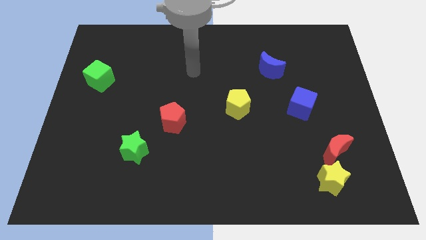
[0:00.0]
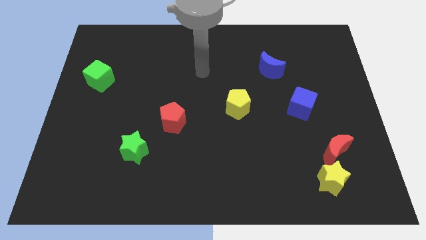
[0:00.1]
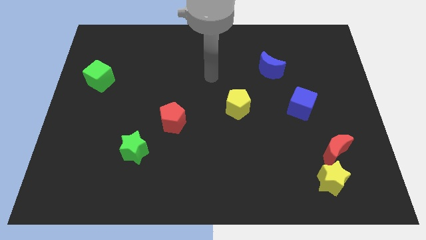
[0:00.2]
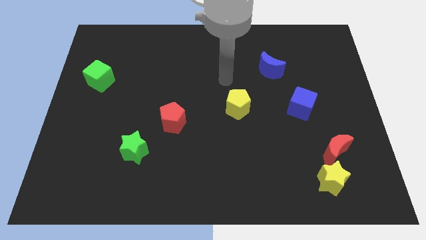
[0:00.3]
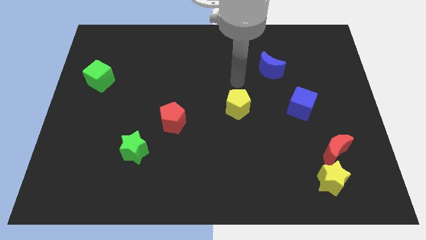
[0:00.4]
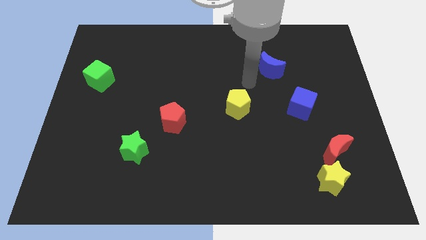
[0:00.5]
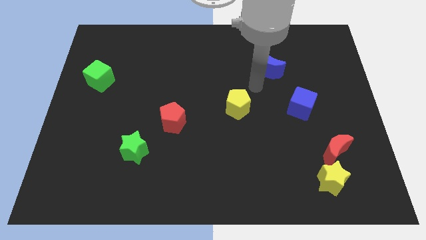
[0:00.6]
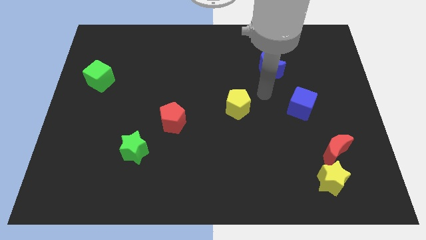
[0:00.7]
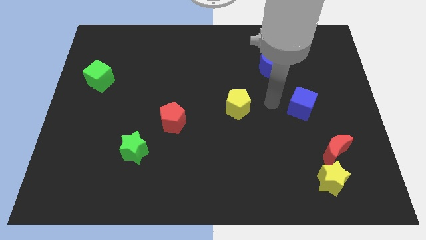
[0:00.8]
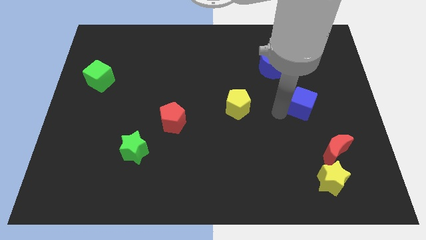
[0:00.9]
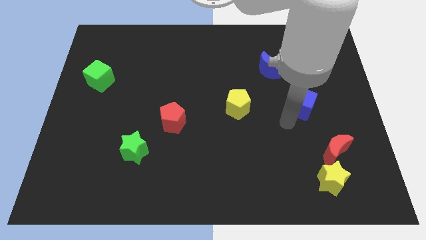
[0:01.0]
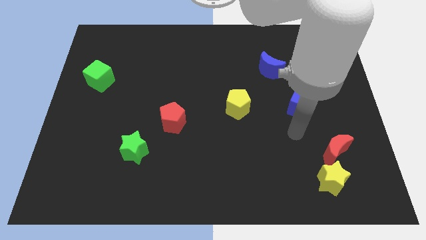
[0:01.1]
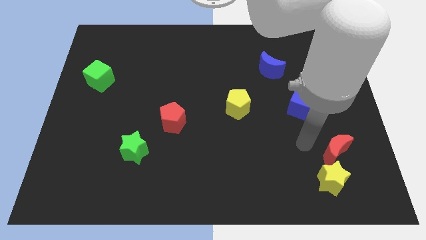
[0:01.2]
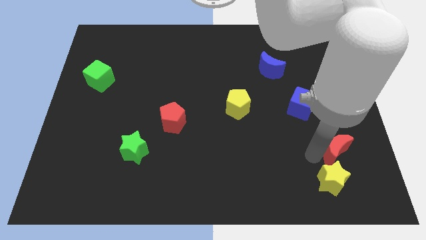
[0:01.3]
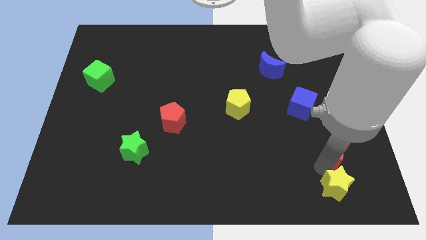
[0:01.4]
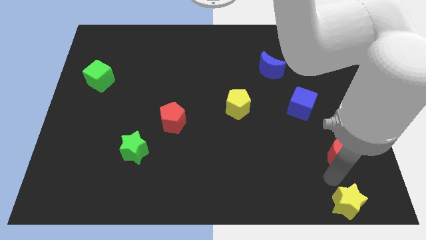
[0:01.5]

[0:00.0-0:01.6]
separate the red moon from the yellow star

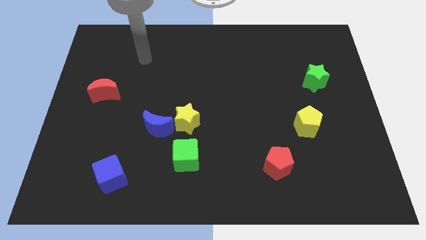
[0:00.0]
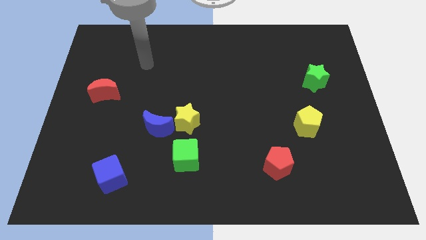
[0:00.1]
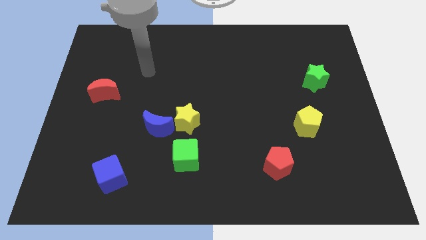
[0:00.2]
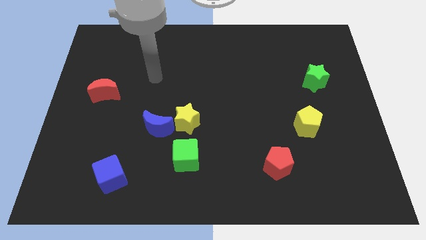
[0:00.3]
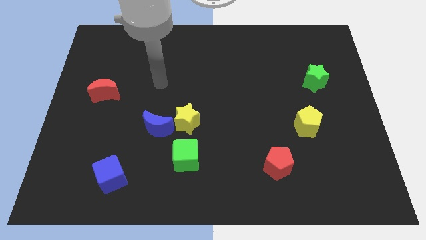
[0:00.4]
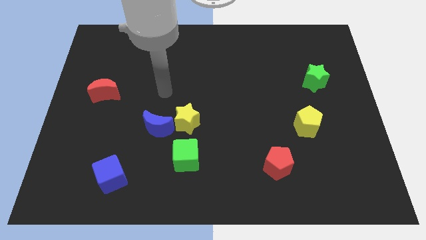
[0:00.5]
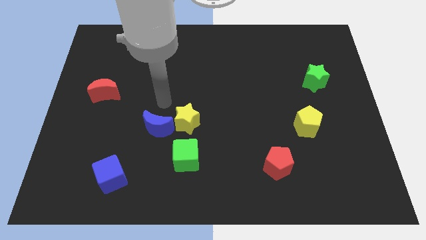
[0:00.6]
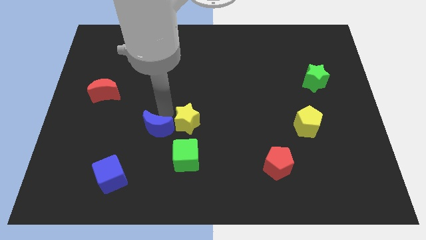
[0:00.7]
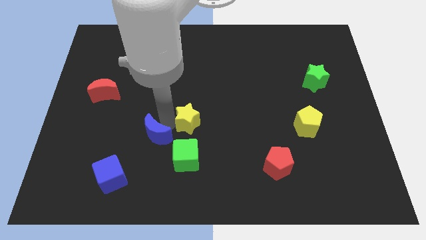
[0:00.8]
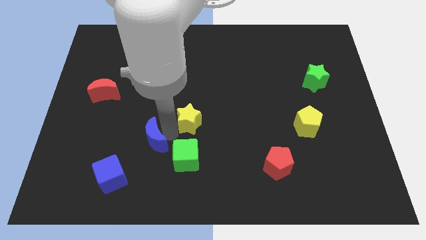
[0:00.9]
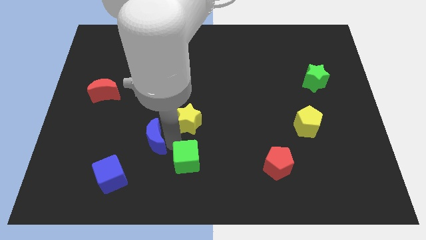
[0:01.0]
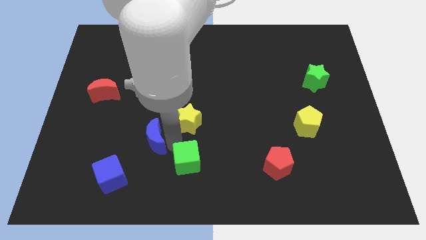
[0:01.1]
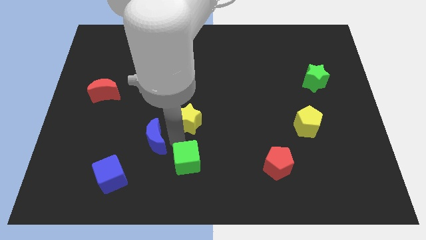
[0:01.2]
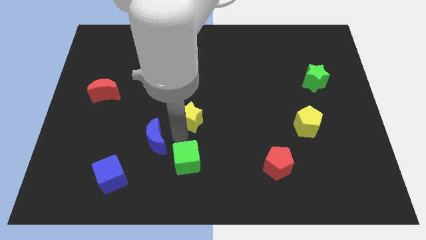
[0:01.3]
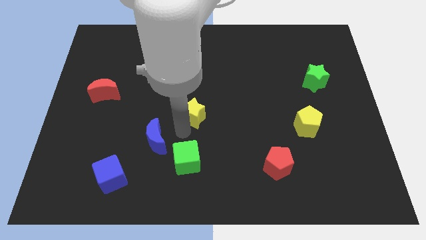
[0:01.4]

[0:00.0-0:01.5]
move the yellow star away from the blue moon and green cube

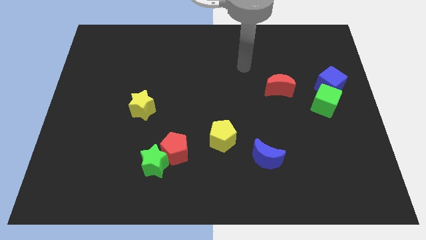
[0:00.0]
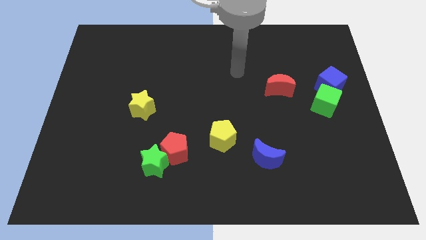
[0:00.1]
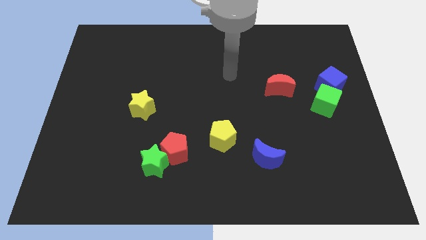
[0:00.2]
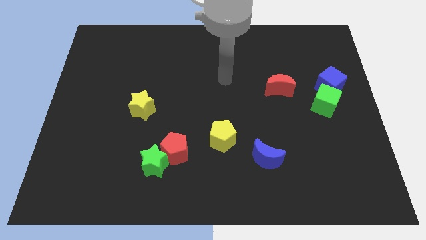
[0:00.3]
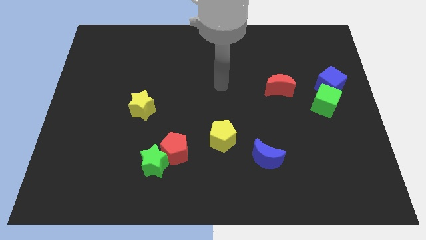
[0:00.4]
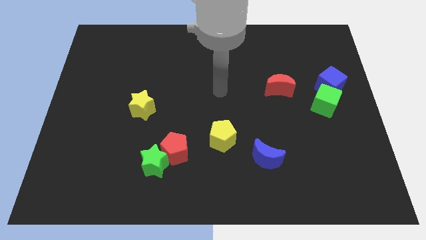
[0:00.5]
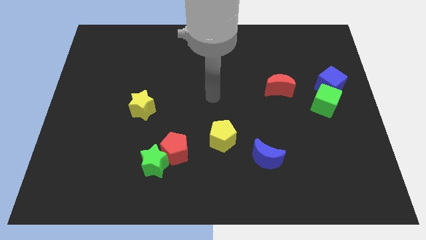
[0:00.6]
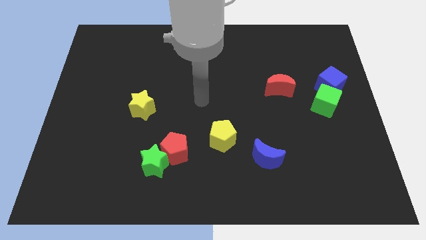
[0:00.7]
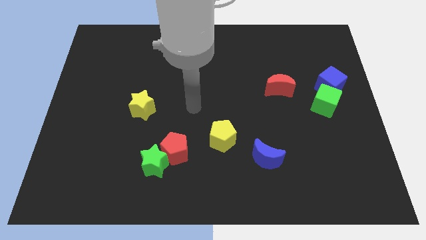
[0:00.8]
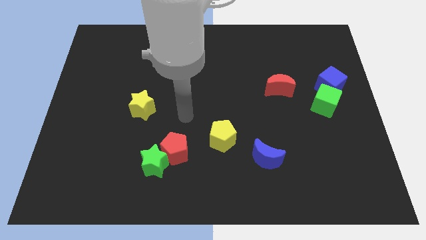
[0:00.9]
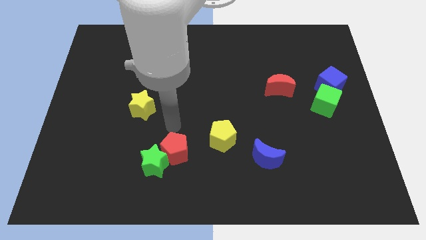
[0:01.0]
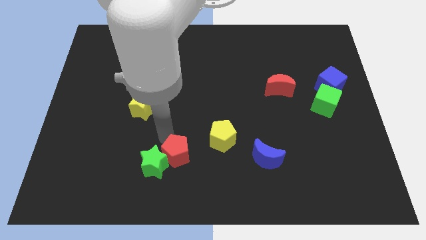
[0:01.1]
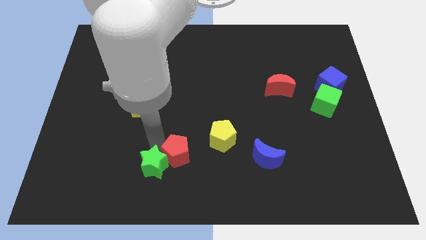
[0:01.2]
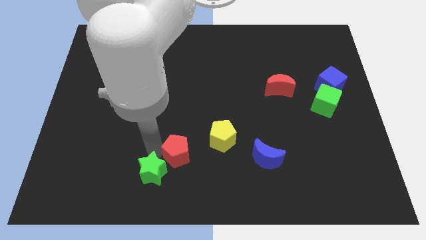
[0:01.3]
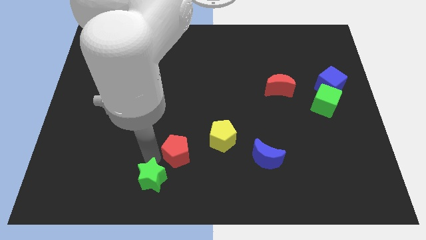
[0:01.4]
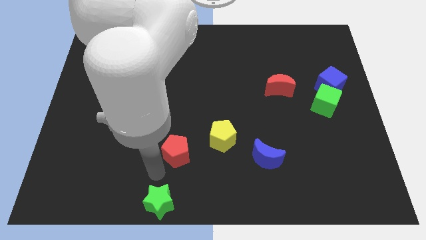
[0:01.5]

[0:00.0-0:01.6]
pull the red pentagon apart from the green star

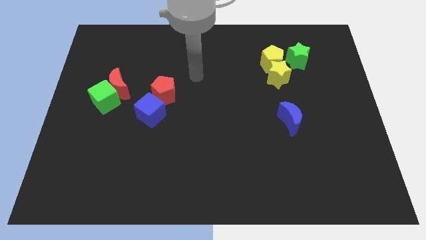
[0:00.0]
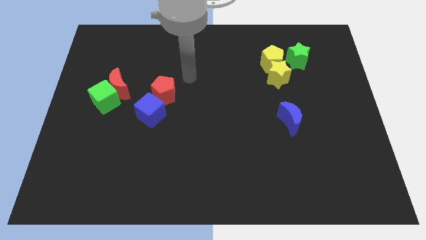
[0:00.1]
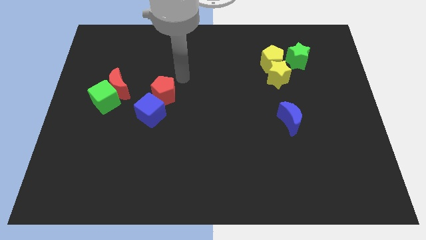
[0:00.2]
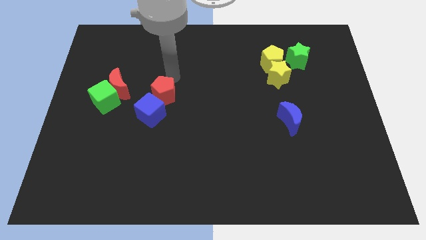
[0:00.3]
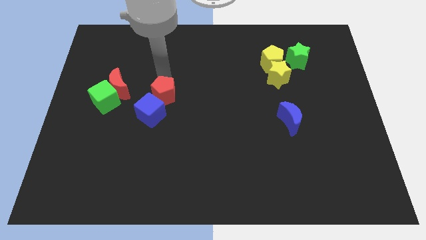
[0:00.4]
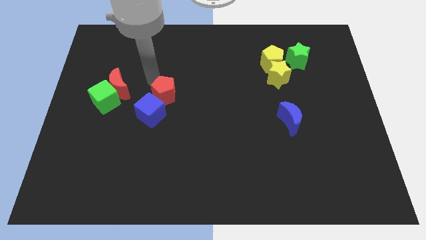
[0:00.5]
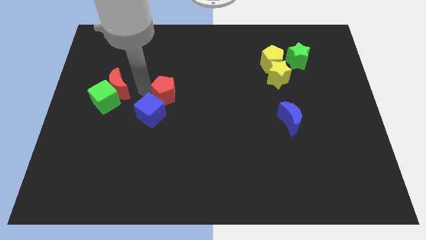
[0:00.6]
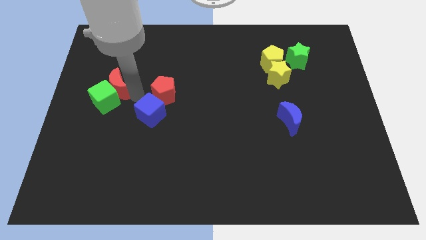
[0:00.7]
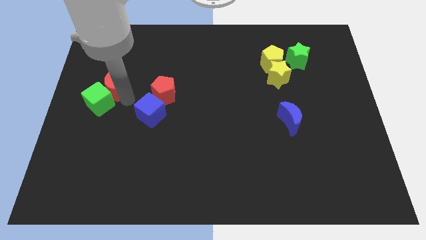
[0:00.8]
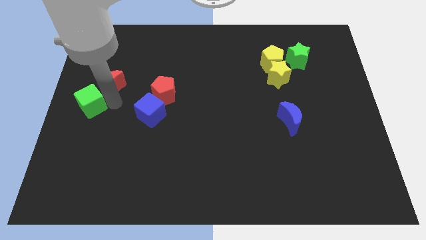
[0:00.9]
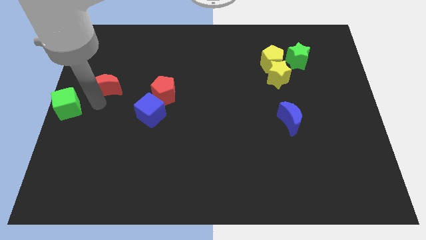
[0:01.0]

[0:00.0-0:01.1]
separate the red moon from the green cube

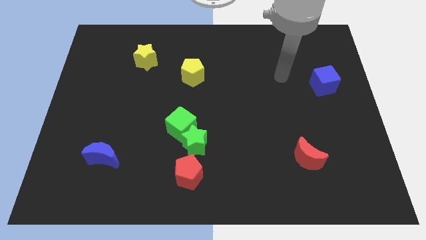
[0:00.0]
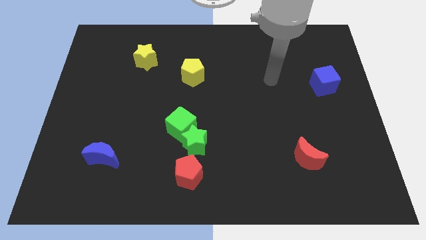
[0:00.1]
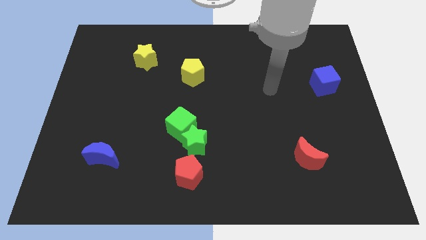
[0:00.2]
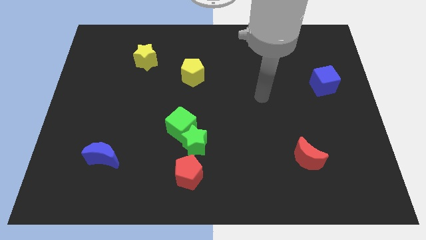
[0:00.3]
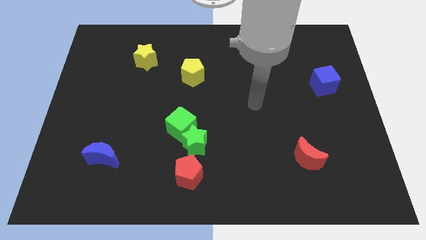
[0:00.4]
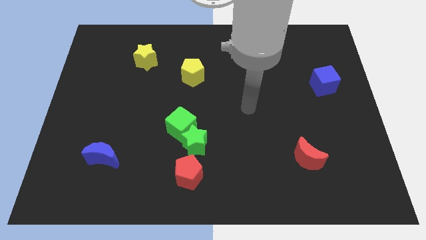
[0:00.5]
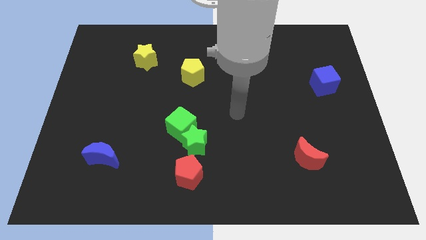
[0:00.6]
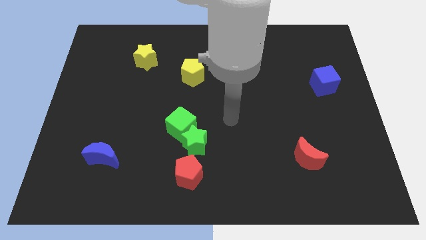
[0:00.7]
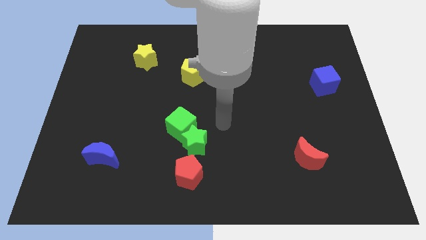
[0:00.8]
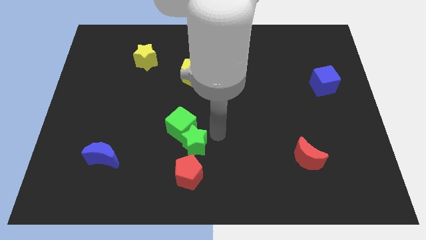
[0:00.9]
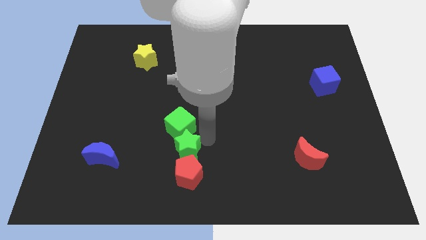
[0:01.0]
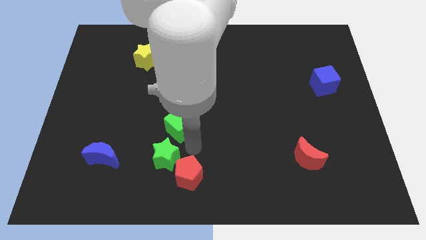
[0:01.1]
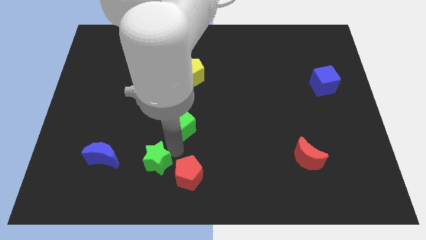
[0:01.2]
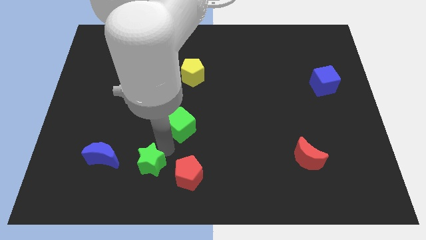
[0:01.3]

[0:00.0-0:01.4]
move the green cube away from the green star

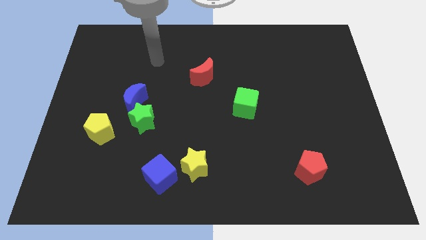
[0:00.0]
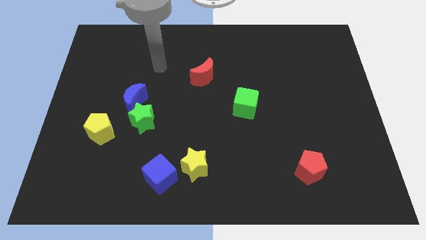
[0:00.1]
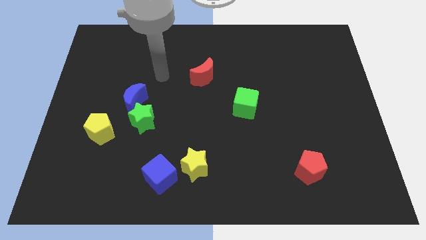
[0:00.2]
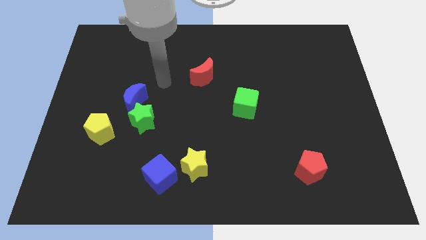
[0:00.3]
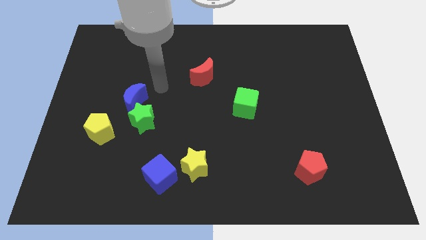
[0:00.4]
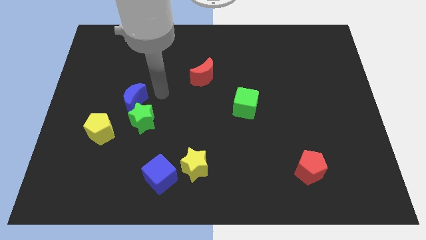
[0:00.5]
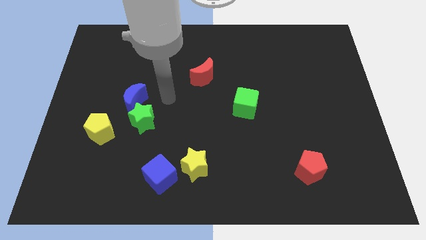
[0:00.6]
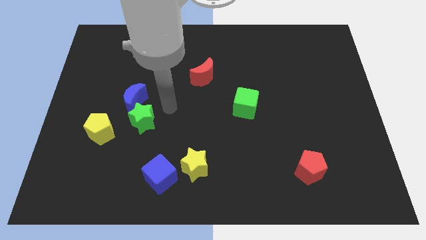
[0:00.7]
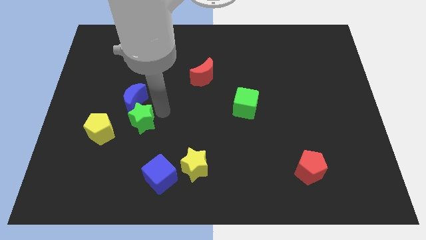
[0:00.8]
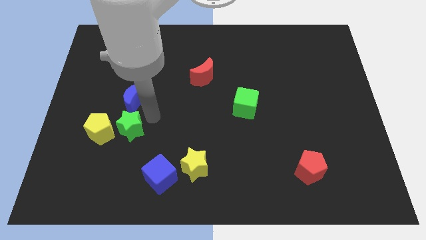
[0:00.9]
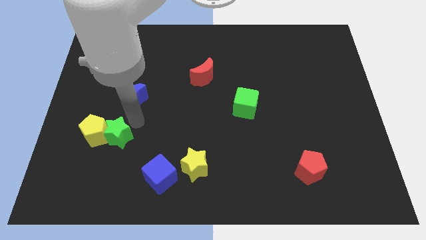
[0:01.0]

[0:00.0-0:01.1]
move the blue moon away from the green star

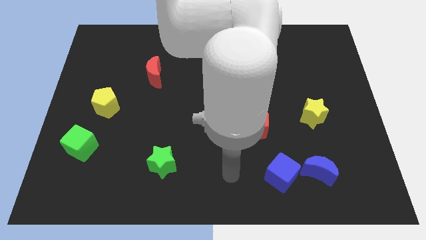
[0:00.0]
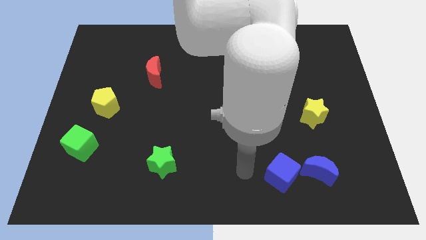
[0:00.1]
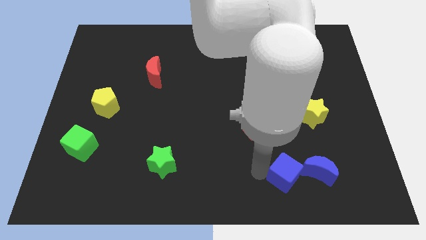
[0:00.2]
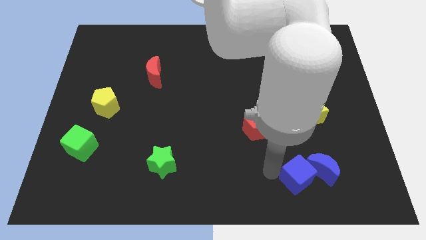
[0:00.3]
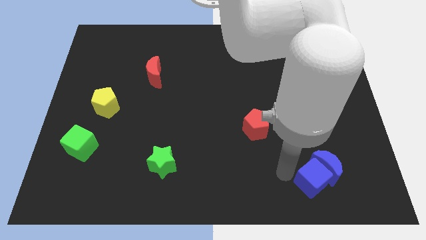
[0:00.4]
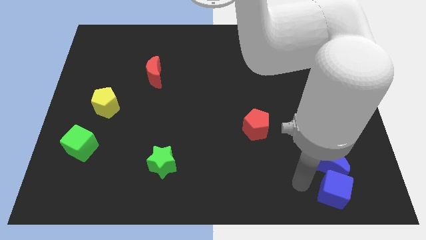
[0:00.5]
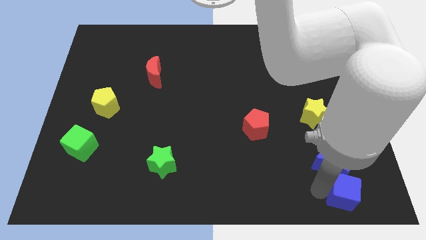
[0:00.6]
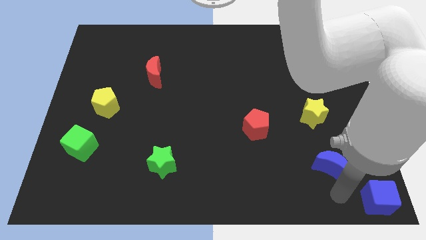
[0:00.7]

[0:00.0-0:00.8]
pull the blue moon apart from the blue cube
